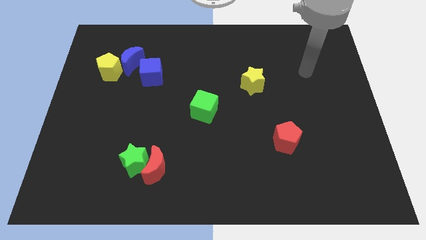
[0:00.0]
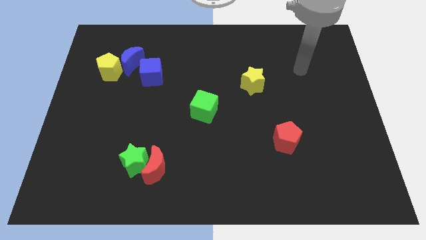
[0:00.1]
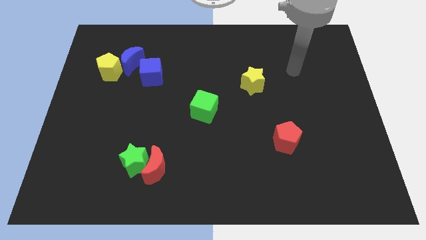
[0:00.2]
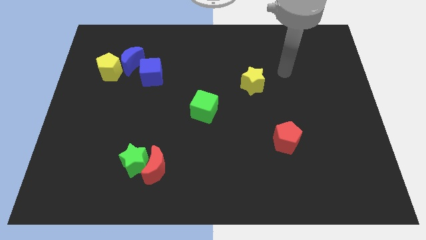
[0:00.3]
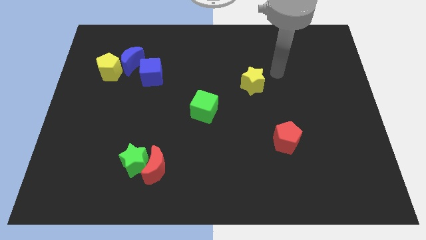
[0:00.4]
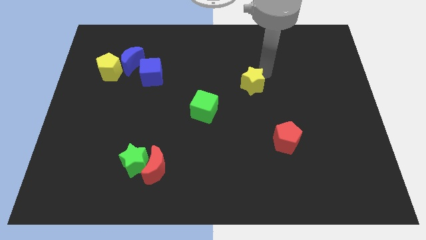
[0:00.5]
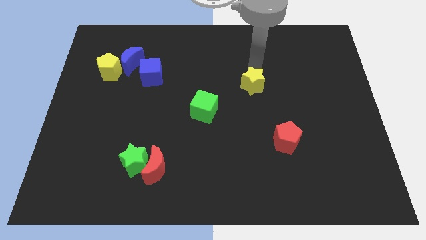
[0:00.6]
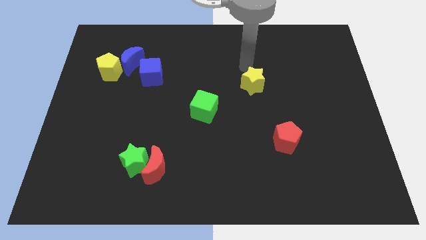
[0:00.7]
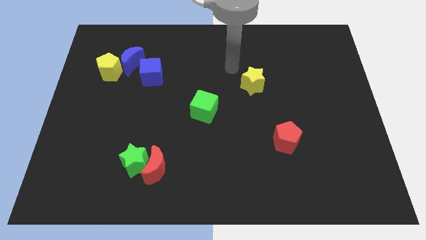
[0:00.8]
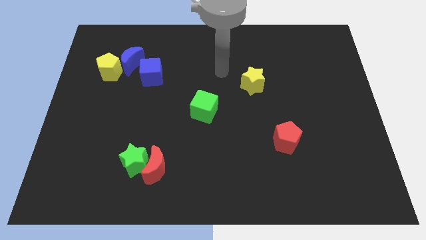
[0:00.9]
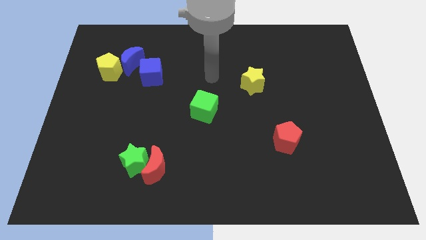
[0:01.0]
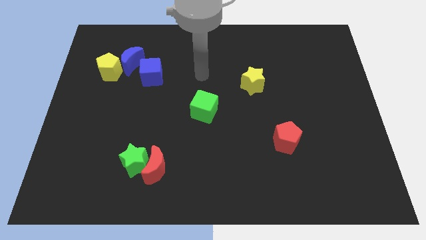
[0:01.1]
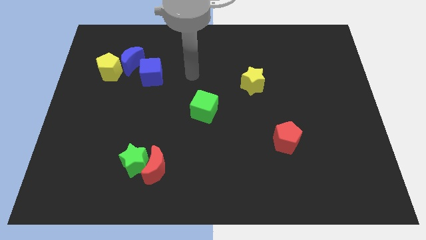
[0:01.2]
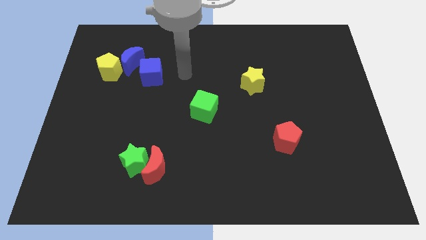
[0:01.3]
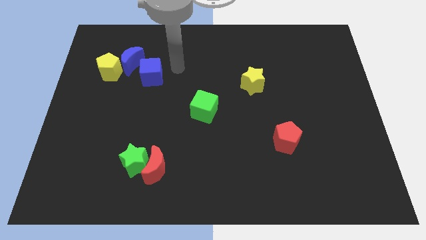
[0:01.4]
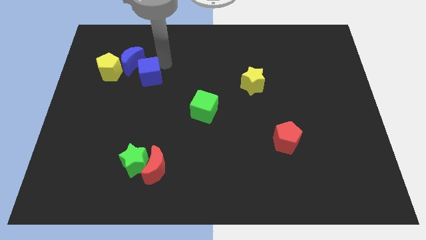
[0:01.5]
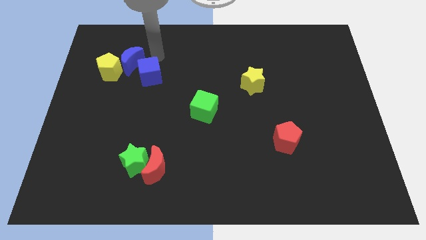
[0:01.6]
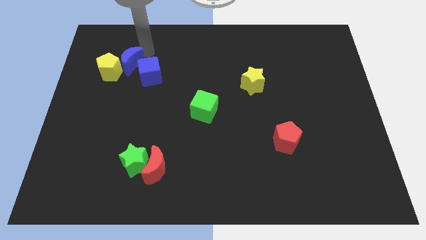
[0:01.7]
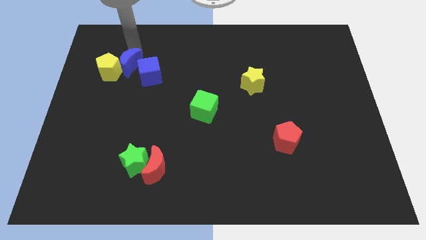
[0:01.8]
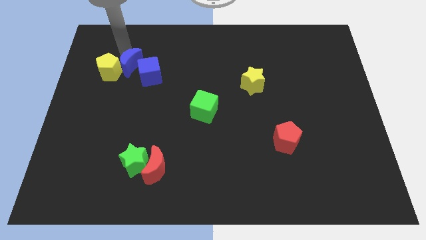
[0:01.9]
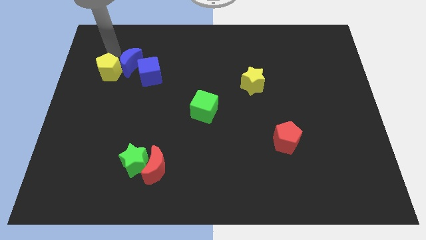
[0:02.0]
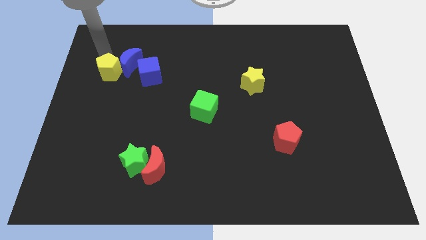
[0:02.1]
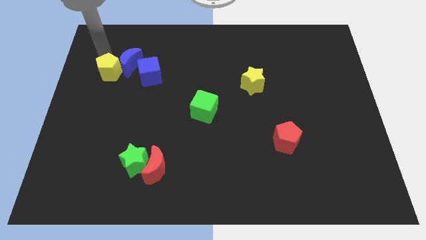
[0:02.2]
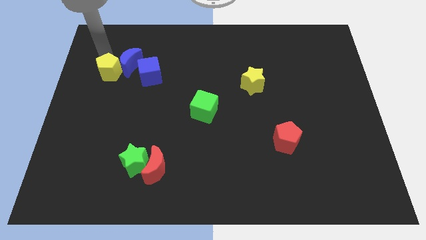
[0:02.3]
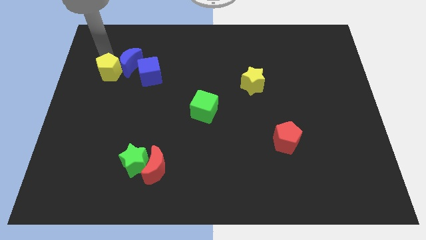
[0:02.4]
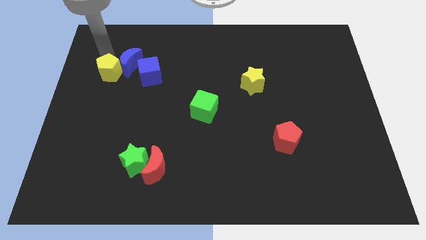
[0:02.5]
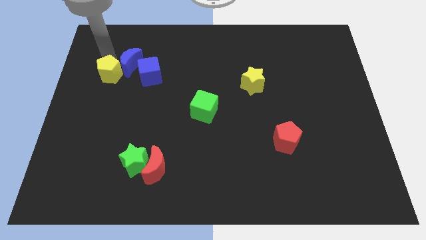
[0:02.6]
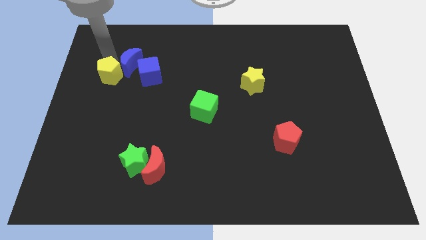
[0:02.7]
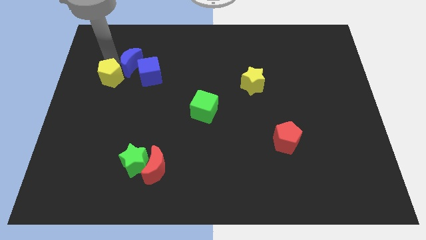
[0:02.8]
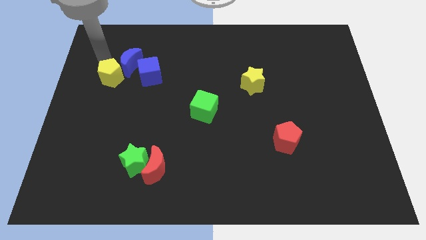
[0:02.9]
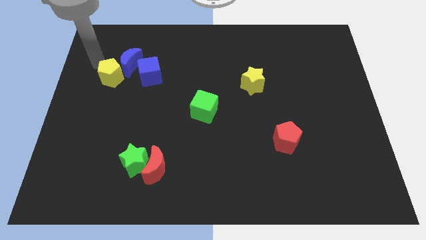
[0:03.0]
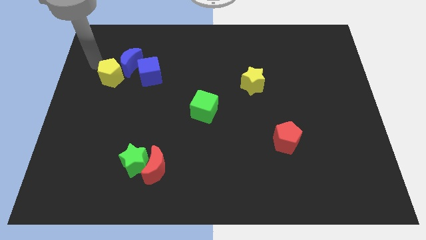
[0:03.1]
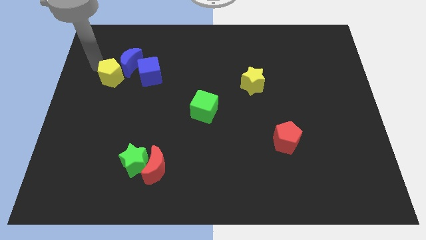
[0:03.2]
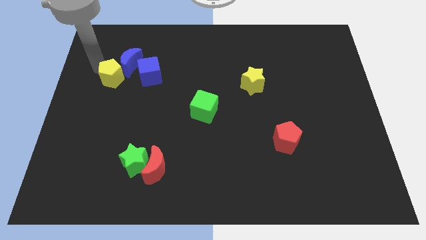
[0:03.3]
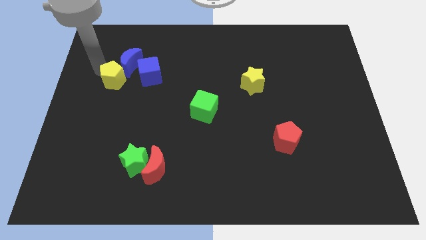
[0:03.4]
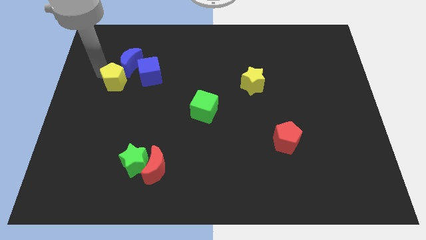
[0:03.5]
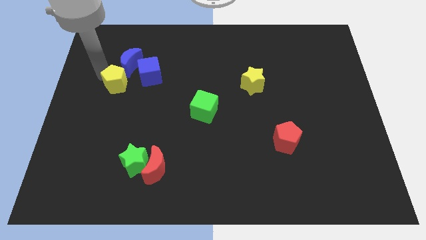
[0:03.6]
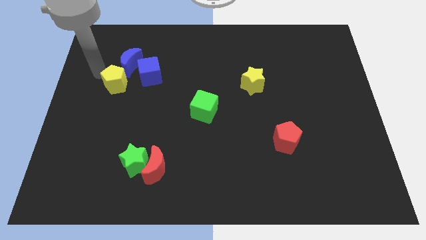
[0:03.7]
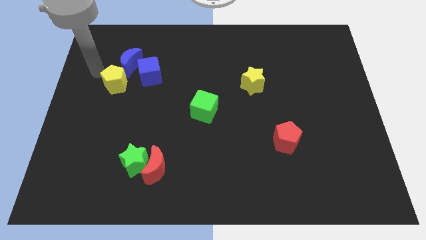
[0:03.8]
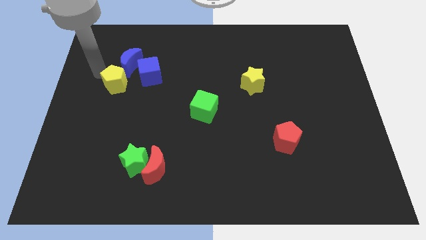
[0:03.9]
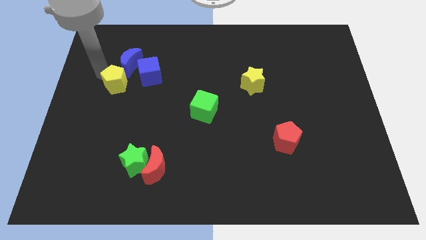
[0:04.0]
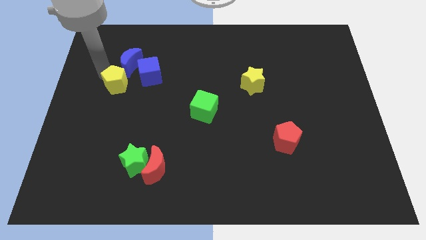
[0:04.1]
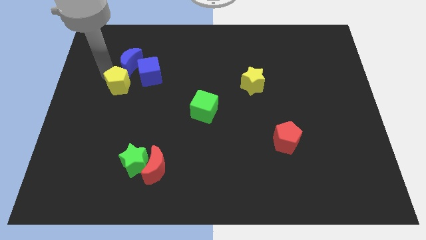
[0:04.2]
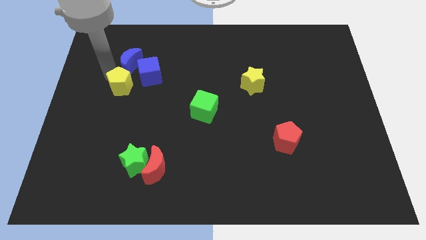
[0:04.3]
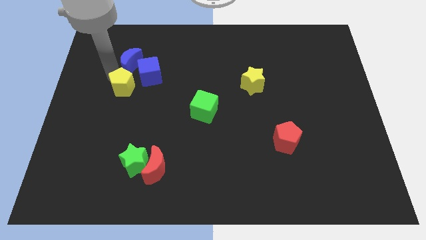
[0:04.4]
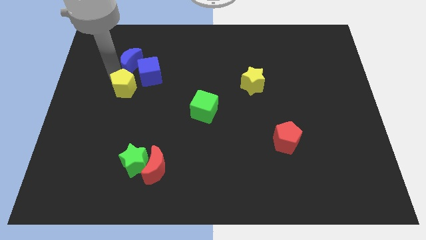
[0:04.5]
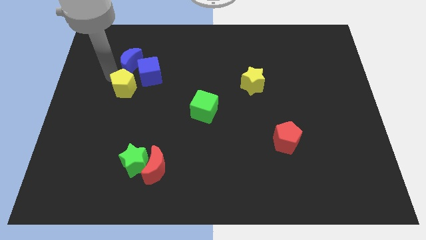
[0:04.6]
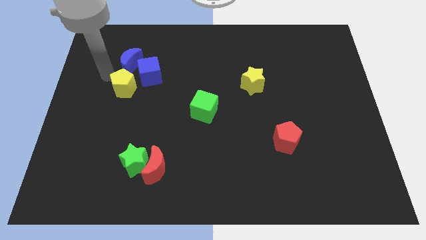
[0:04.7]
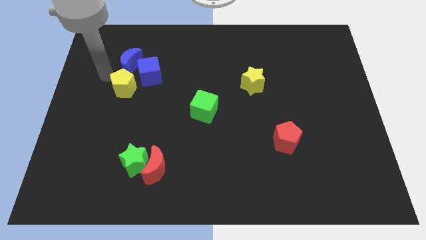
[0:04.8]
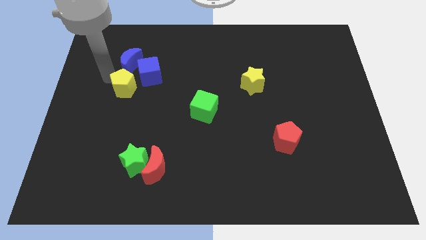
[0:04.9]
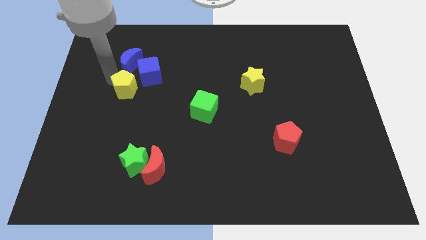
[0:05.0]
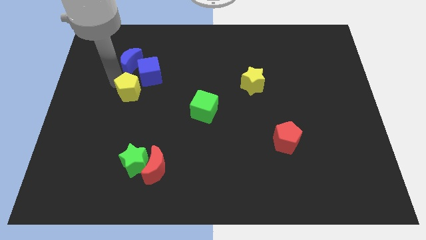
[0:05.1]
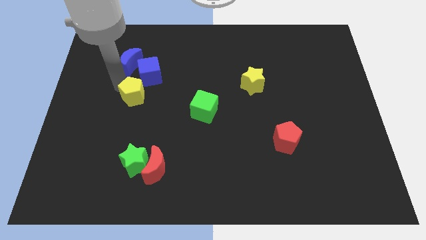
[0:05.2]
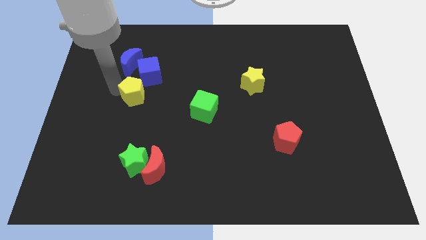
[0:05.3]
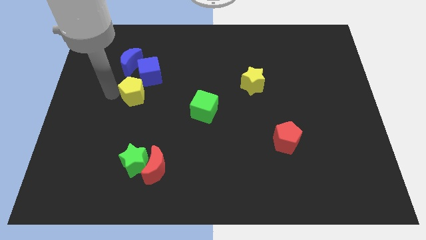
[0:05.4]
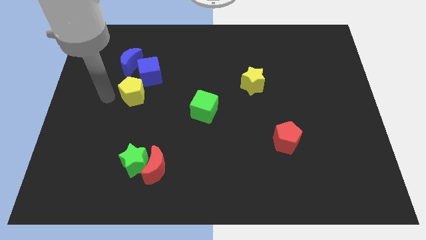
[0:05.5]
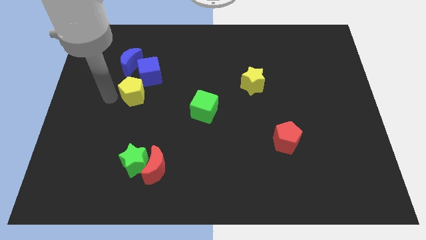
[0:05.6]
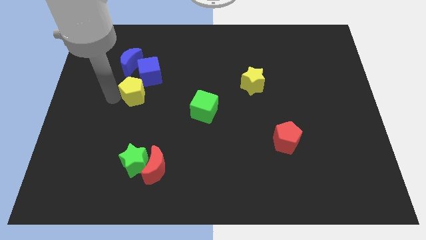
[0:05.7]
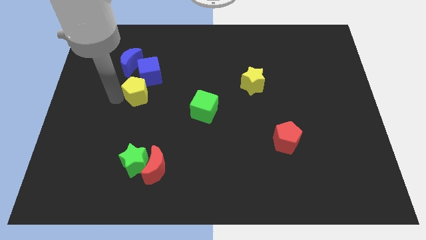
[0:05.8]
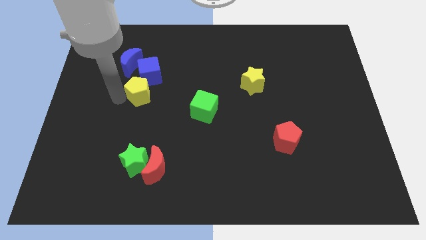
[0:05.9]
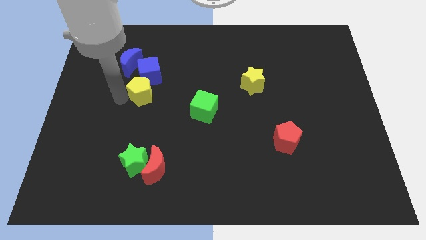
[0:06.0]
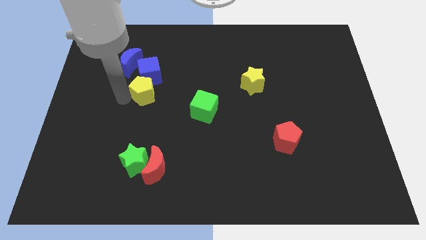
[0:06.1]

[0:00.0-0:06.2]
slightly move the yellow pentagon to the right

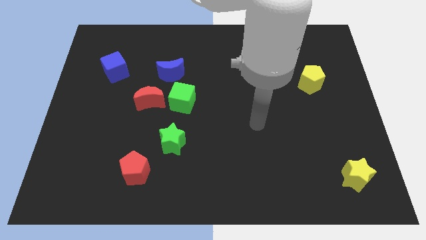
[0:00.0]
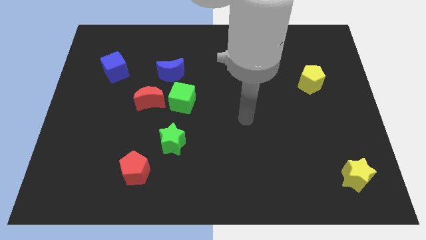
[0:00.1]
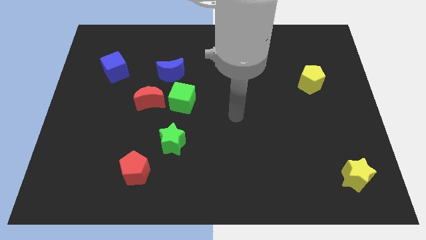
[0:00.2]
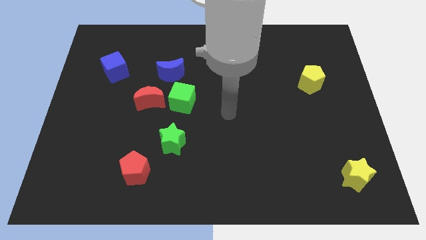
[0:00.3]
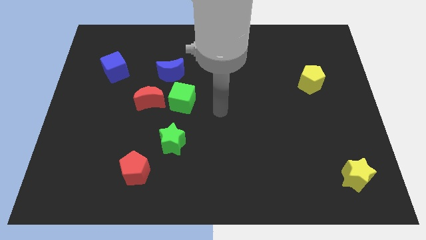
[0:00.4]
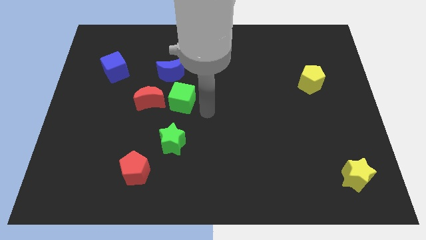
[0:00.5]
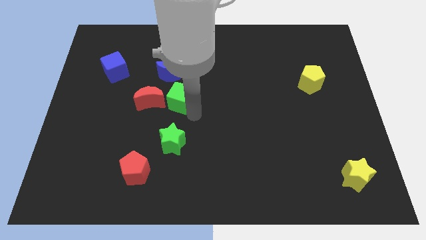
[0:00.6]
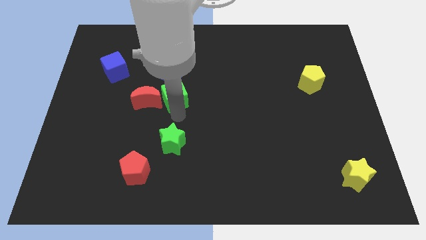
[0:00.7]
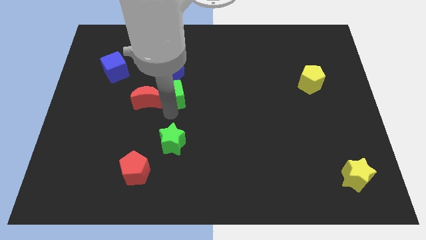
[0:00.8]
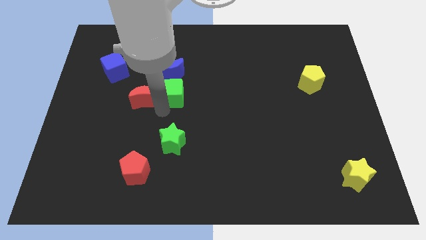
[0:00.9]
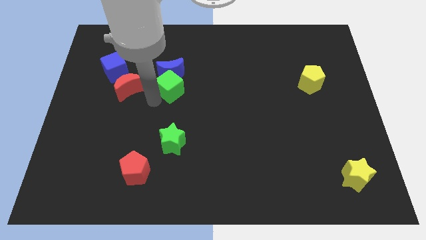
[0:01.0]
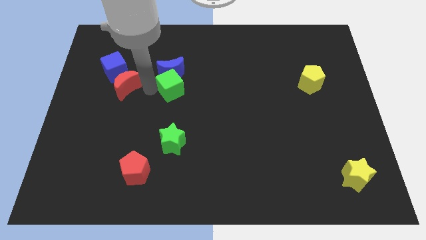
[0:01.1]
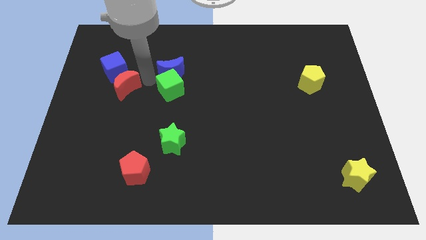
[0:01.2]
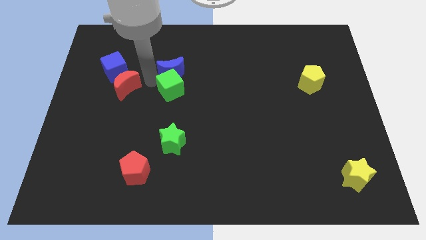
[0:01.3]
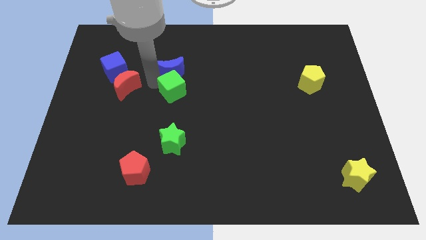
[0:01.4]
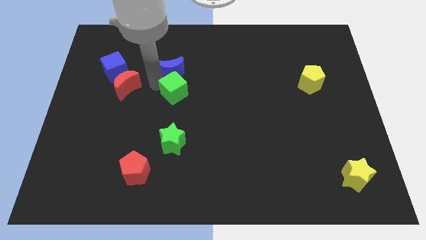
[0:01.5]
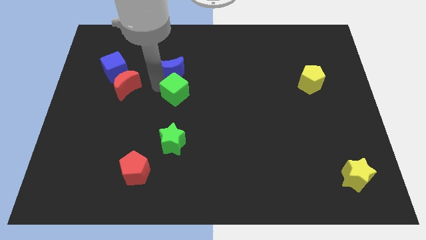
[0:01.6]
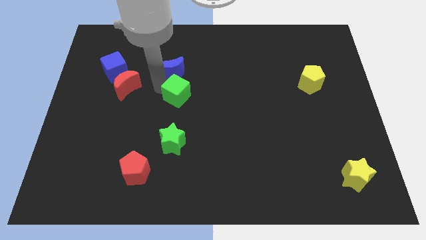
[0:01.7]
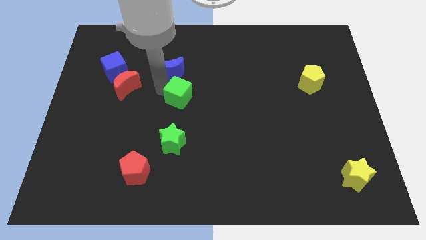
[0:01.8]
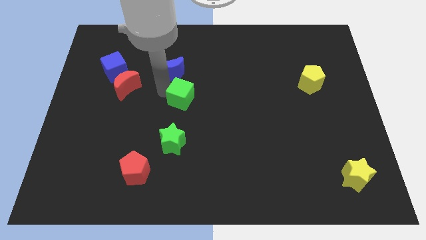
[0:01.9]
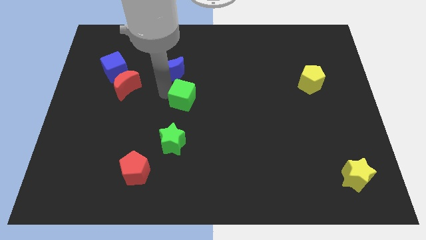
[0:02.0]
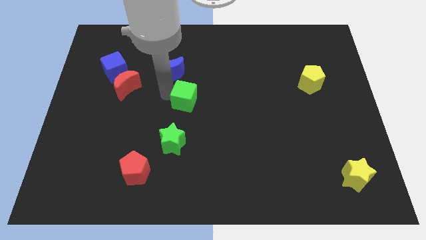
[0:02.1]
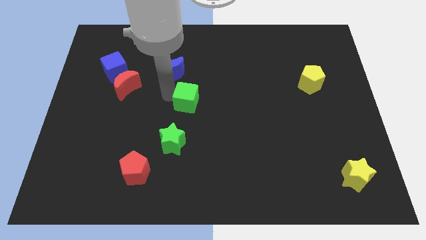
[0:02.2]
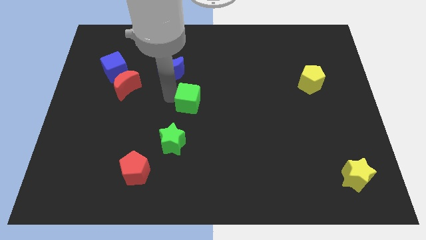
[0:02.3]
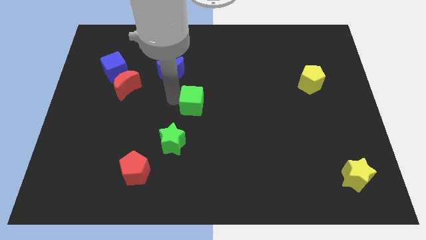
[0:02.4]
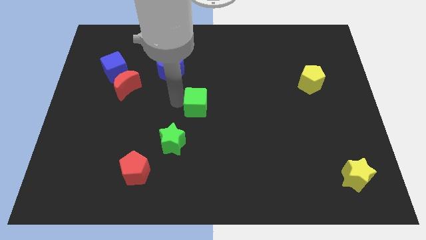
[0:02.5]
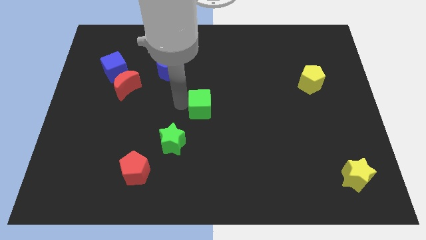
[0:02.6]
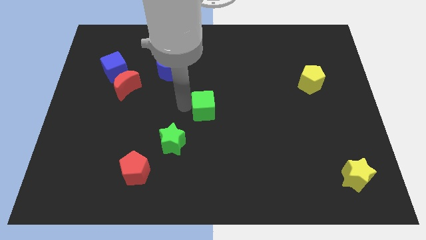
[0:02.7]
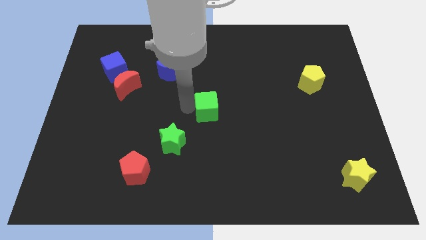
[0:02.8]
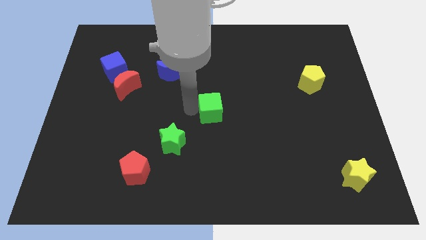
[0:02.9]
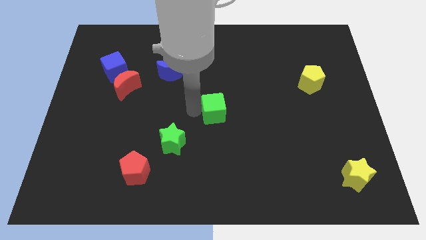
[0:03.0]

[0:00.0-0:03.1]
slide the green cube to the right a bit
